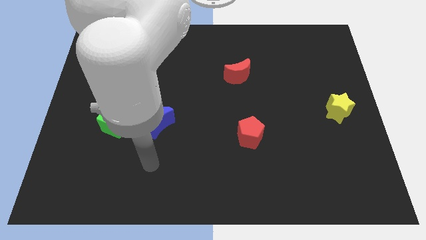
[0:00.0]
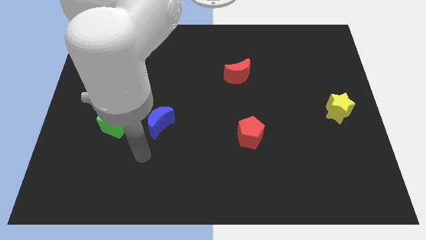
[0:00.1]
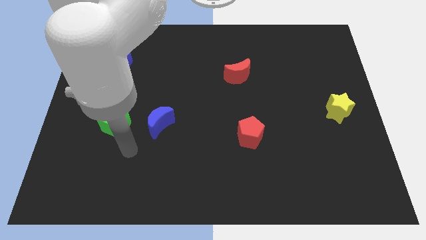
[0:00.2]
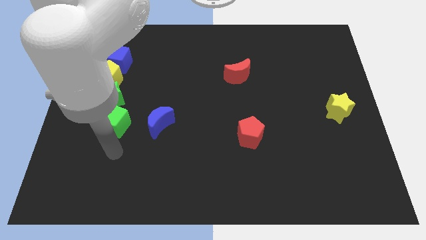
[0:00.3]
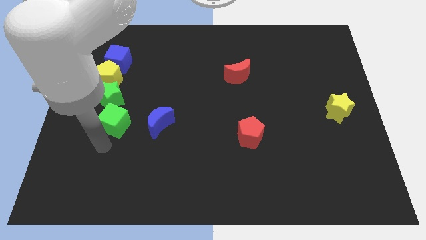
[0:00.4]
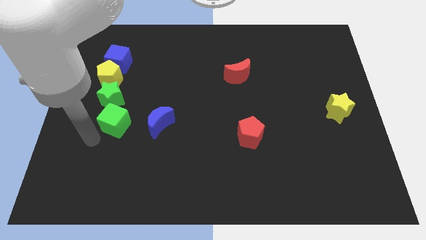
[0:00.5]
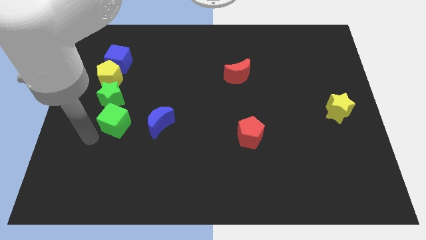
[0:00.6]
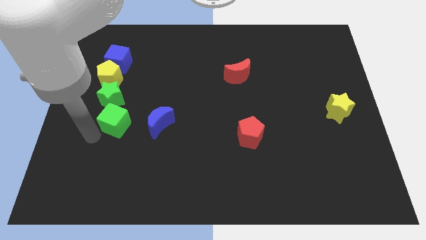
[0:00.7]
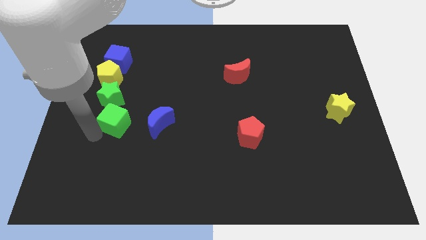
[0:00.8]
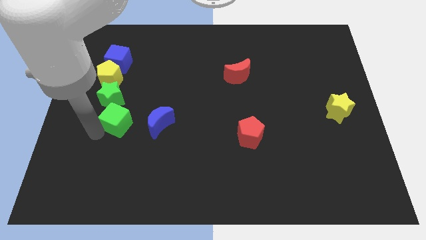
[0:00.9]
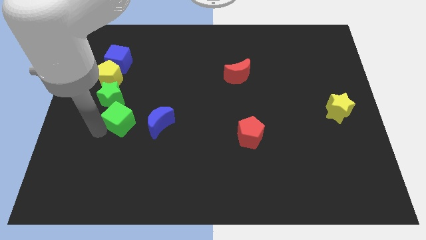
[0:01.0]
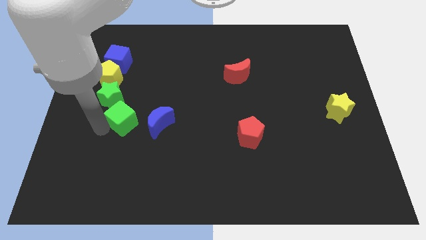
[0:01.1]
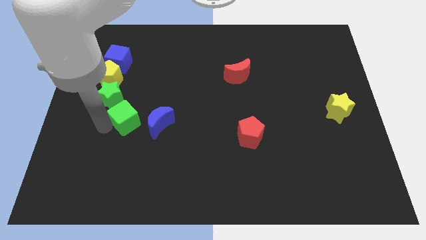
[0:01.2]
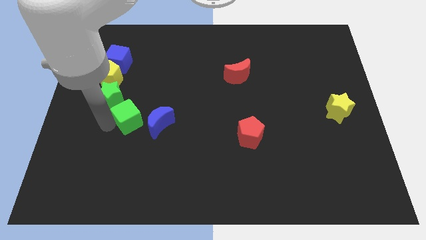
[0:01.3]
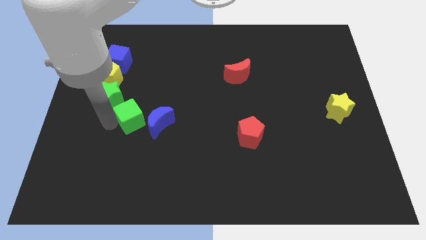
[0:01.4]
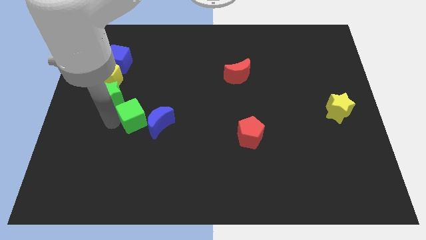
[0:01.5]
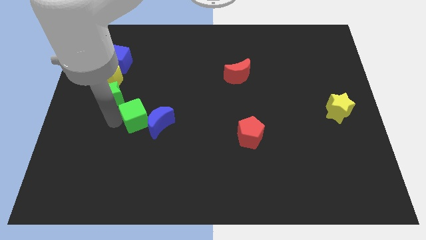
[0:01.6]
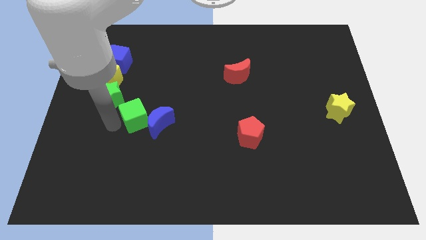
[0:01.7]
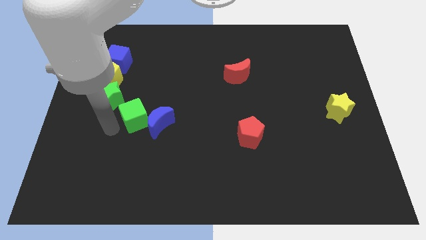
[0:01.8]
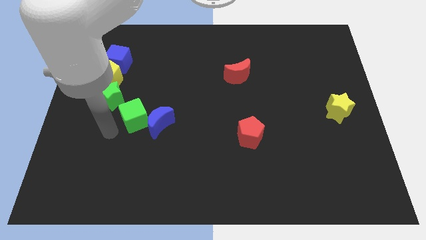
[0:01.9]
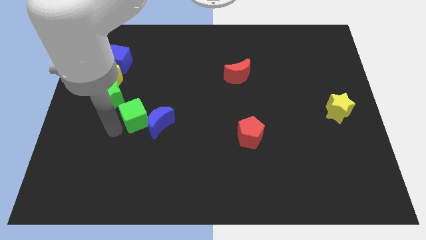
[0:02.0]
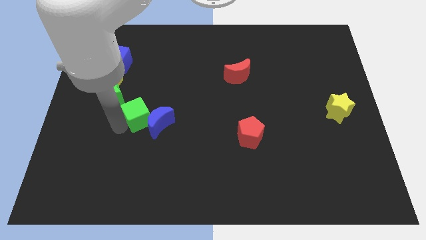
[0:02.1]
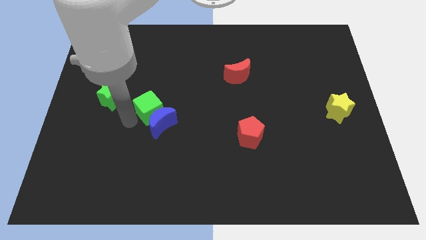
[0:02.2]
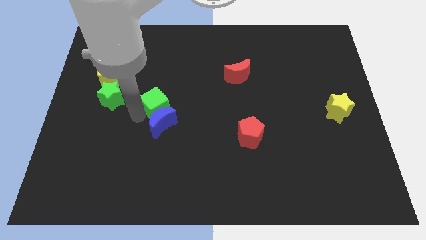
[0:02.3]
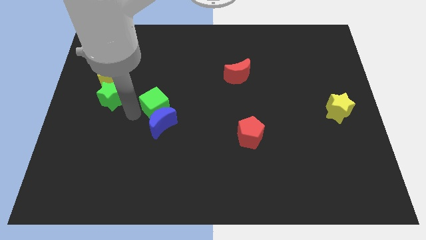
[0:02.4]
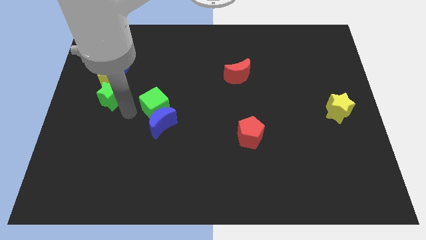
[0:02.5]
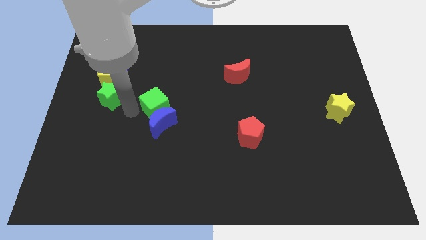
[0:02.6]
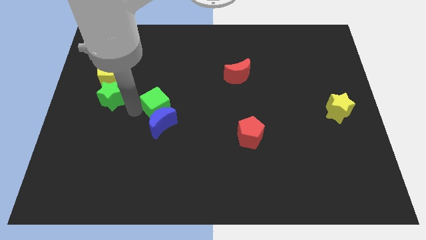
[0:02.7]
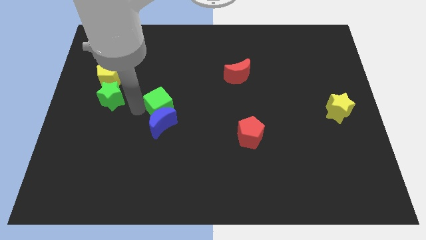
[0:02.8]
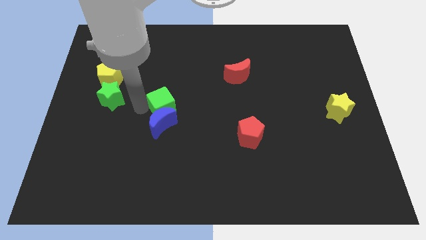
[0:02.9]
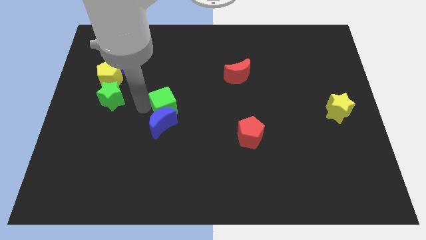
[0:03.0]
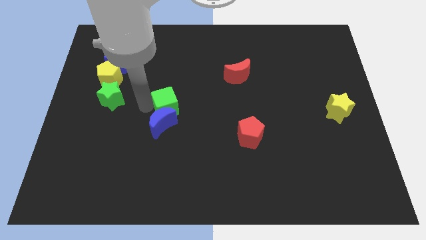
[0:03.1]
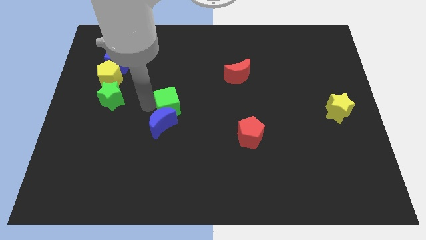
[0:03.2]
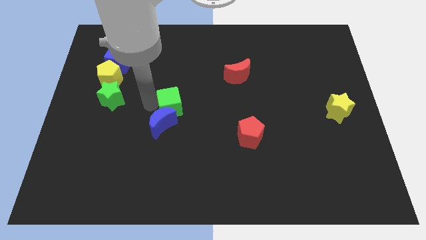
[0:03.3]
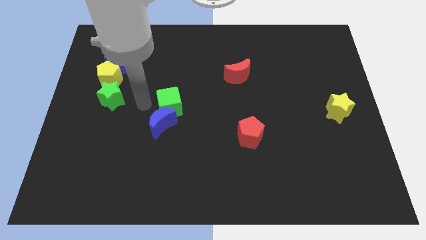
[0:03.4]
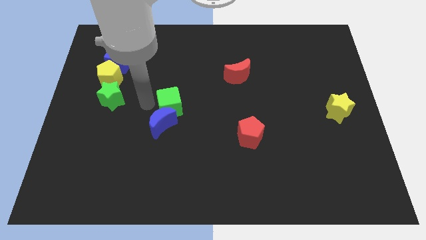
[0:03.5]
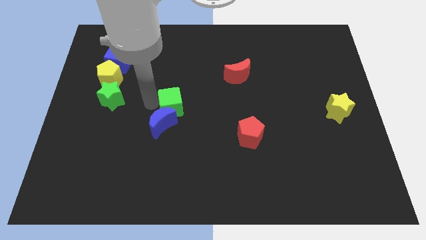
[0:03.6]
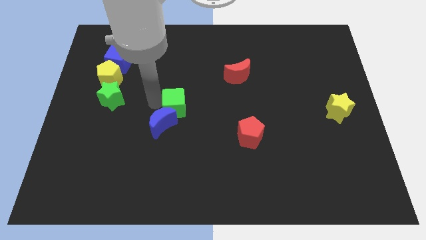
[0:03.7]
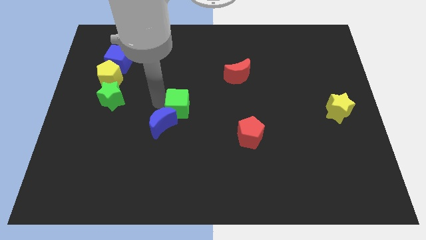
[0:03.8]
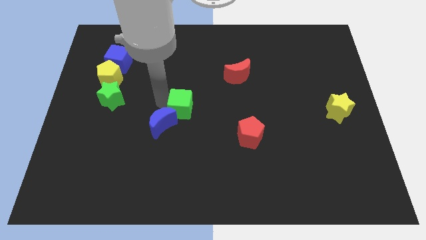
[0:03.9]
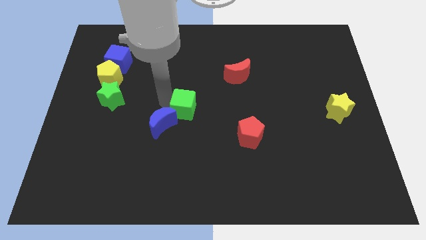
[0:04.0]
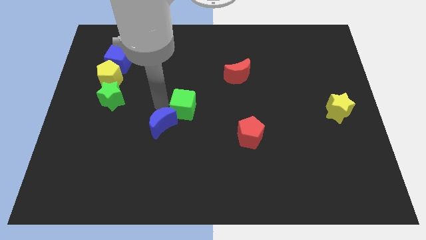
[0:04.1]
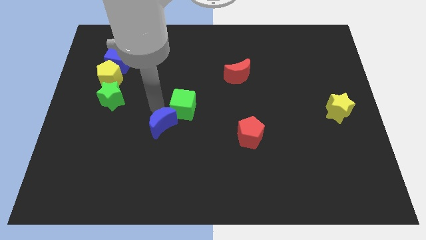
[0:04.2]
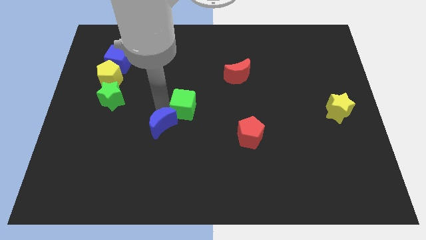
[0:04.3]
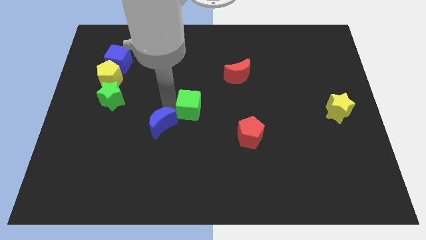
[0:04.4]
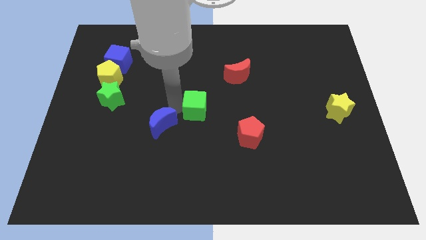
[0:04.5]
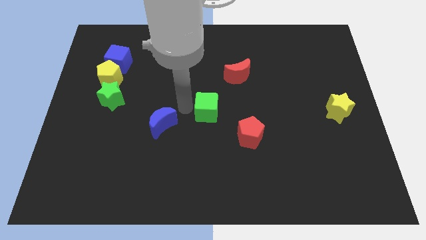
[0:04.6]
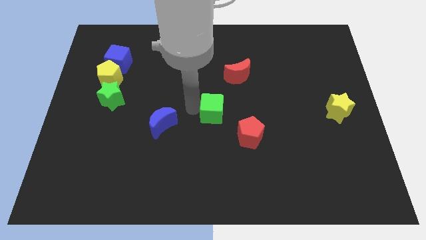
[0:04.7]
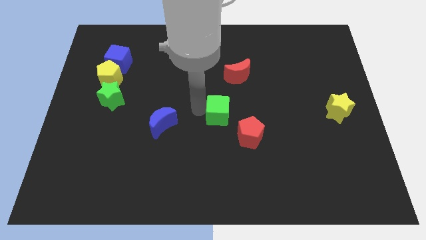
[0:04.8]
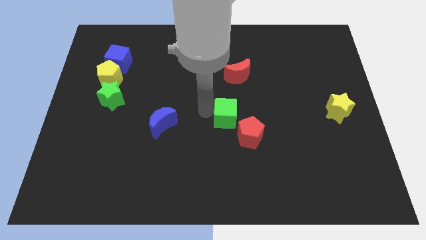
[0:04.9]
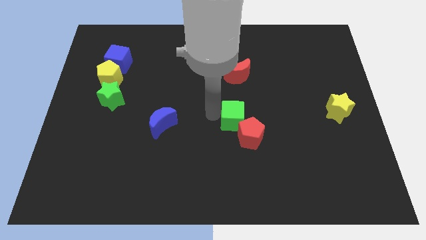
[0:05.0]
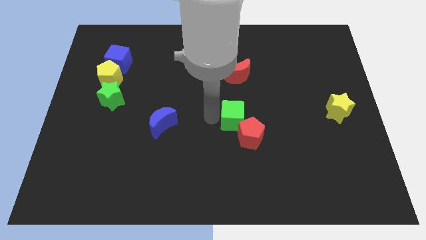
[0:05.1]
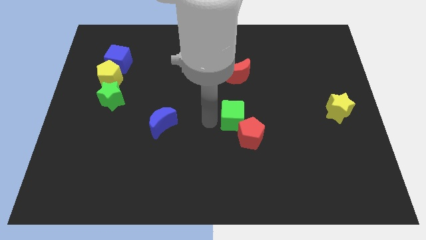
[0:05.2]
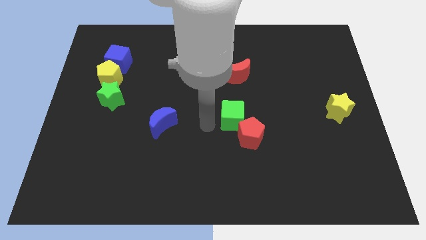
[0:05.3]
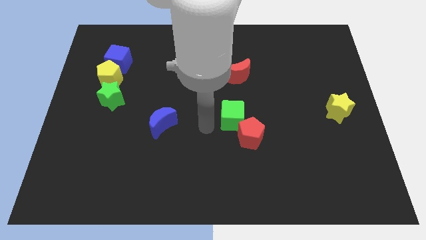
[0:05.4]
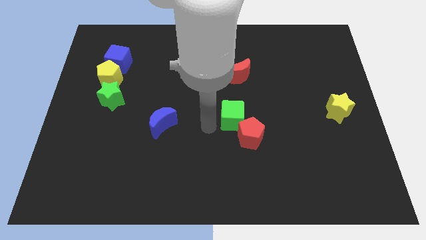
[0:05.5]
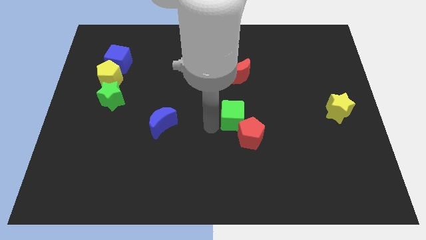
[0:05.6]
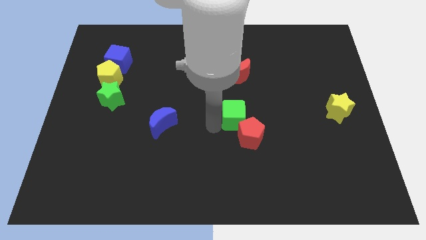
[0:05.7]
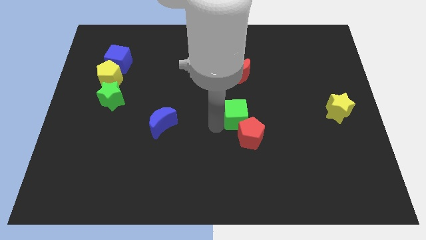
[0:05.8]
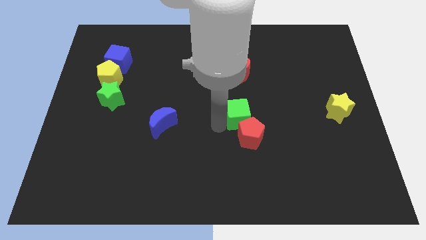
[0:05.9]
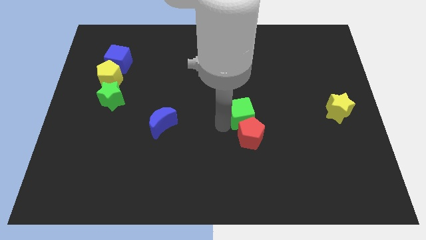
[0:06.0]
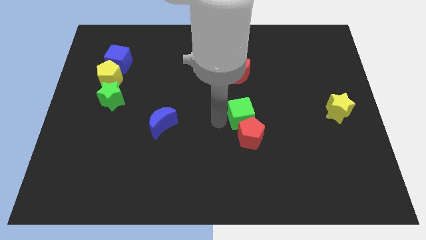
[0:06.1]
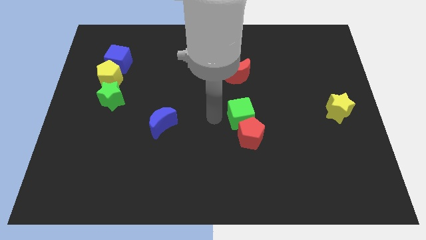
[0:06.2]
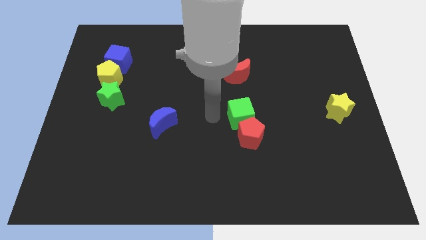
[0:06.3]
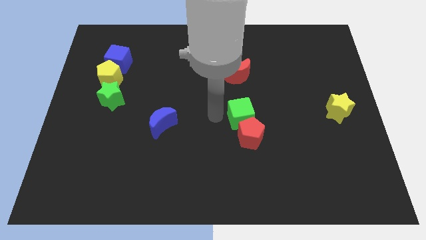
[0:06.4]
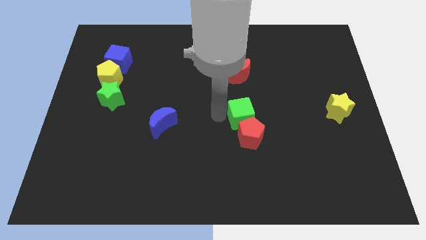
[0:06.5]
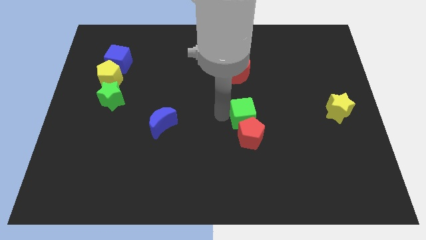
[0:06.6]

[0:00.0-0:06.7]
put the green cube diagonally up and to the right of the red pentagon

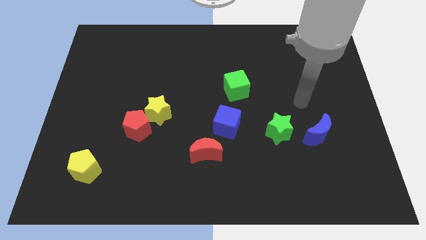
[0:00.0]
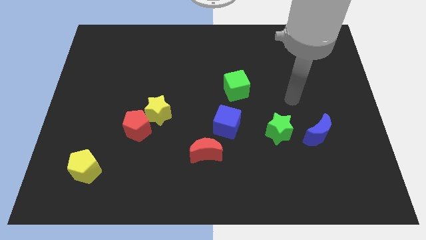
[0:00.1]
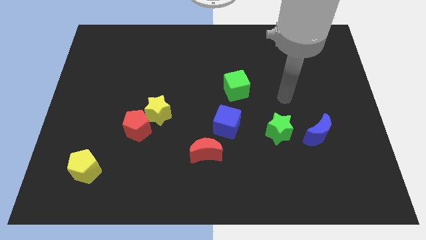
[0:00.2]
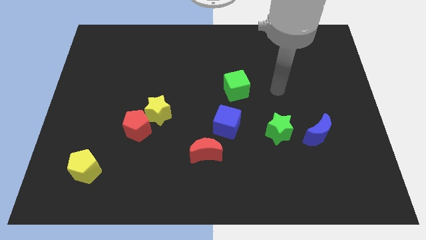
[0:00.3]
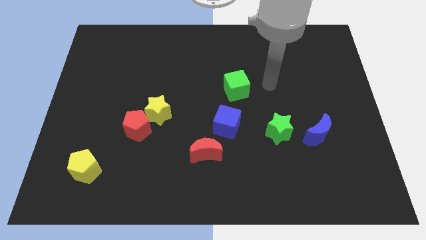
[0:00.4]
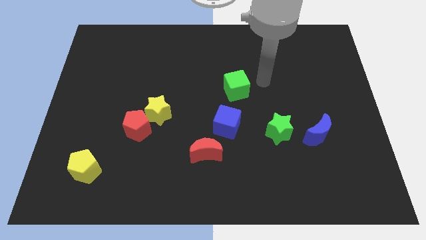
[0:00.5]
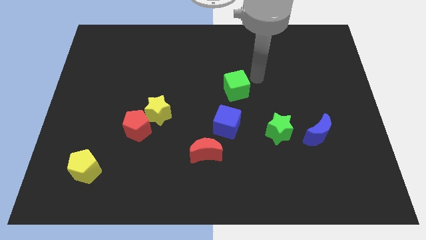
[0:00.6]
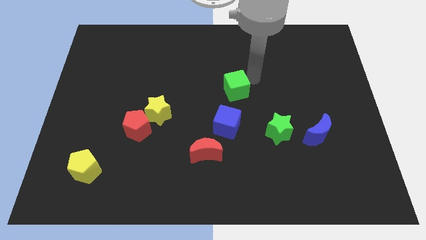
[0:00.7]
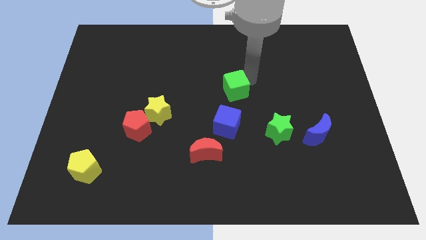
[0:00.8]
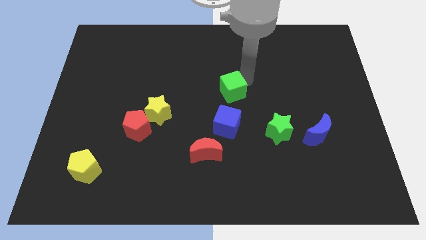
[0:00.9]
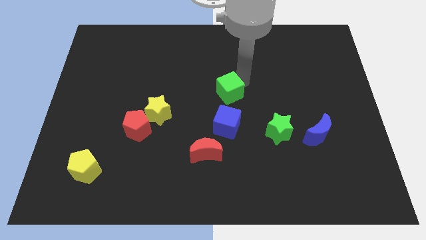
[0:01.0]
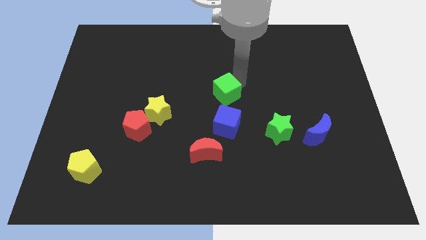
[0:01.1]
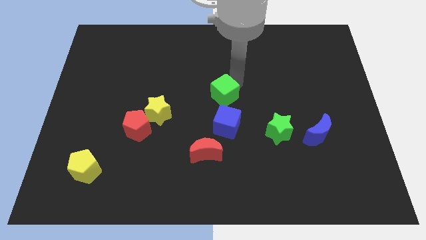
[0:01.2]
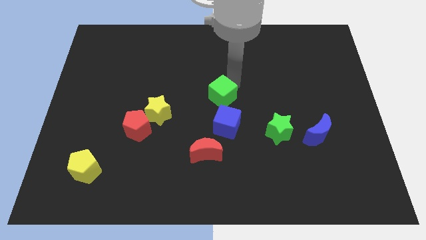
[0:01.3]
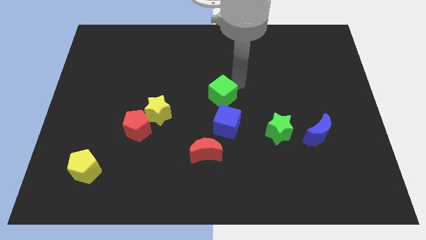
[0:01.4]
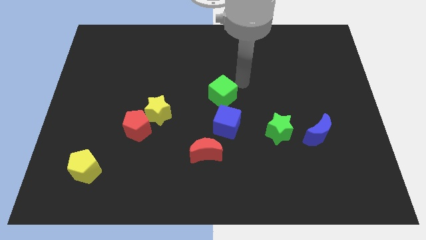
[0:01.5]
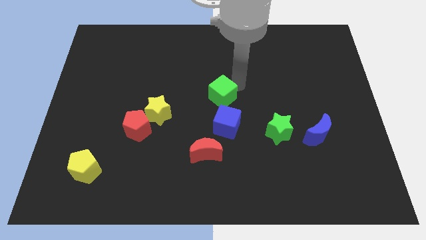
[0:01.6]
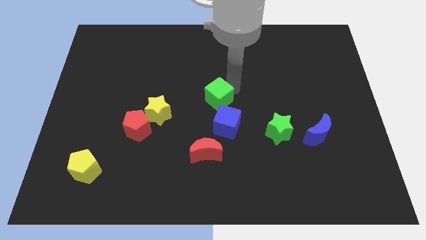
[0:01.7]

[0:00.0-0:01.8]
slide the green cube to the top left side of the blue cube
